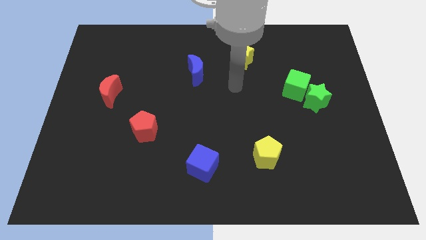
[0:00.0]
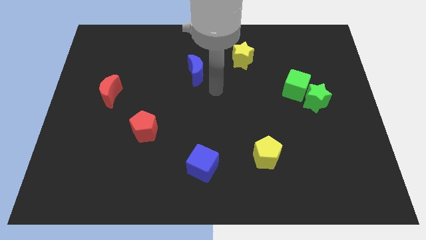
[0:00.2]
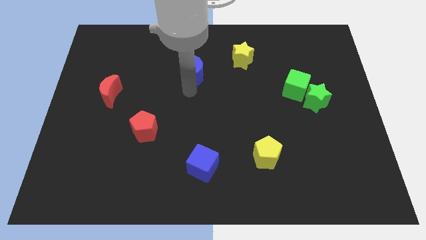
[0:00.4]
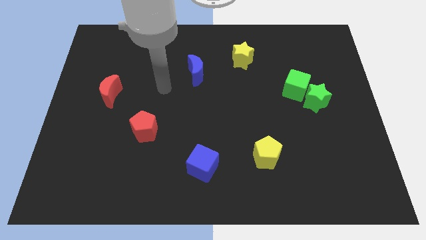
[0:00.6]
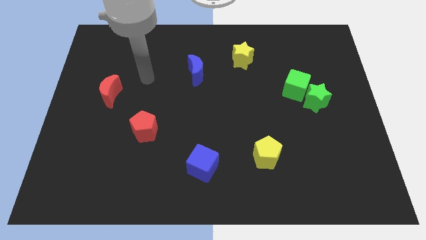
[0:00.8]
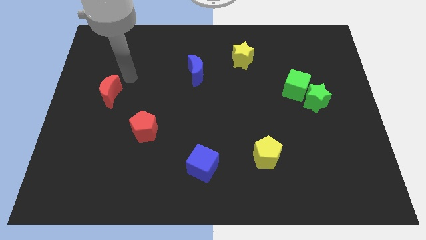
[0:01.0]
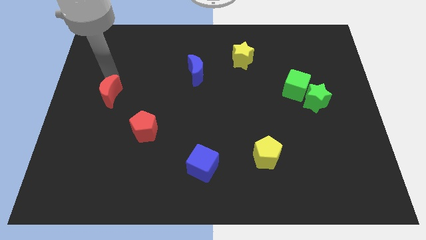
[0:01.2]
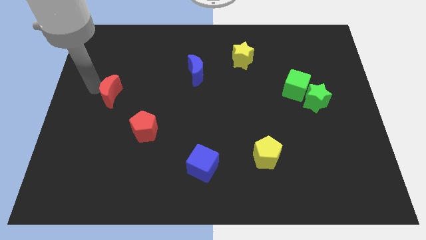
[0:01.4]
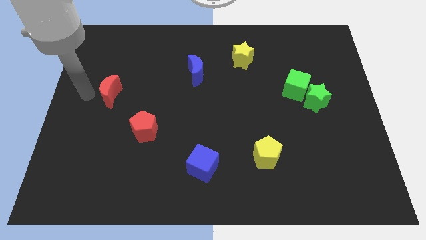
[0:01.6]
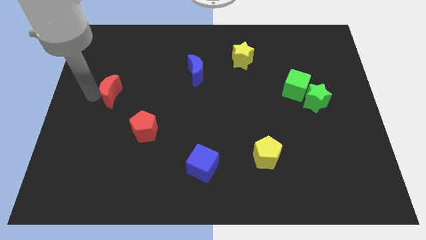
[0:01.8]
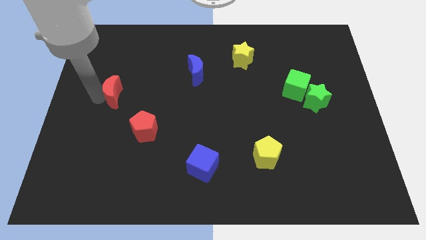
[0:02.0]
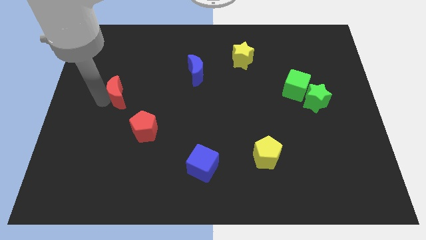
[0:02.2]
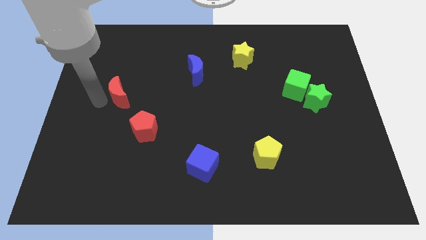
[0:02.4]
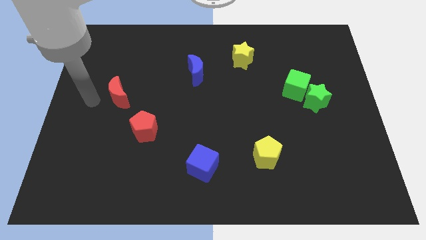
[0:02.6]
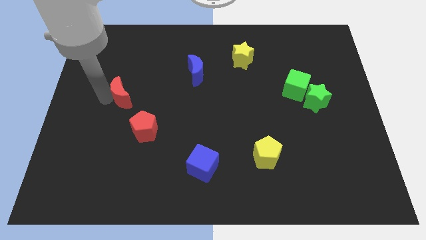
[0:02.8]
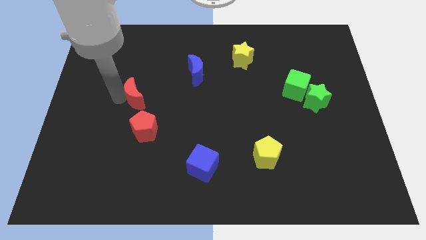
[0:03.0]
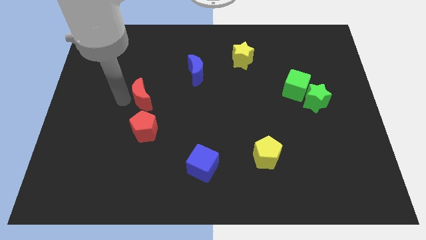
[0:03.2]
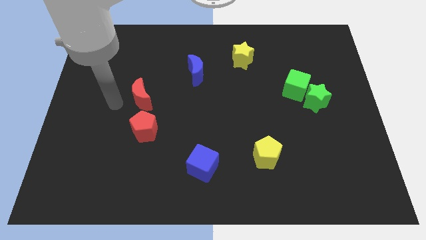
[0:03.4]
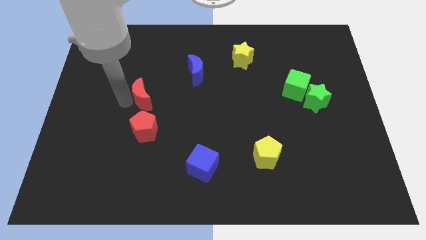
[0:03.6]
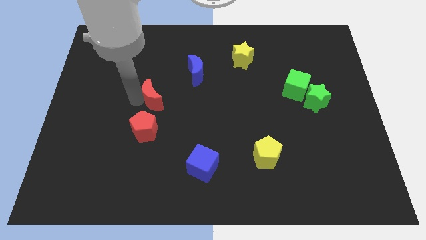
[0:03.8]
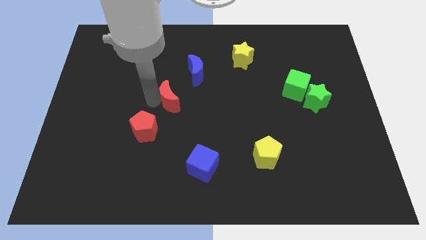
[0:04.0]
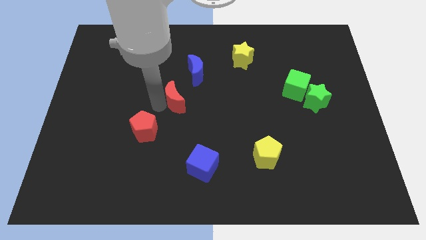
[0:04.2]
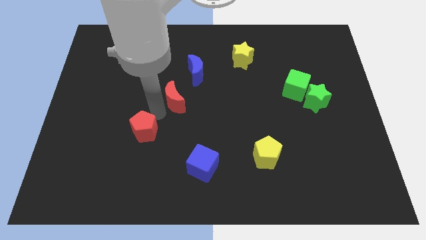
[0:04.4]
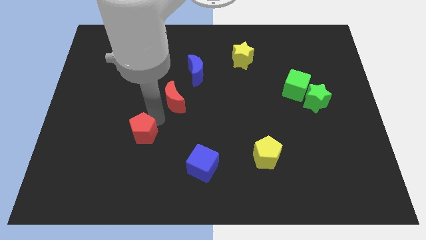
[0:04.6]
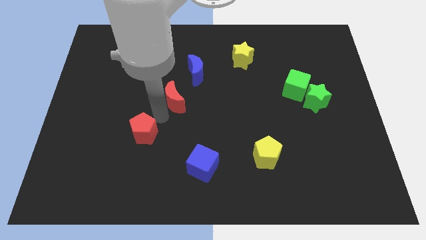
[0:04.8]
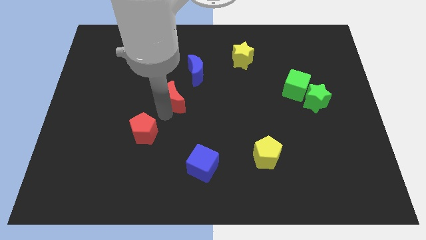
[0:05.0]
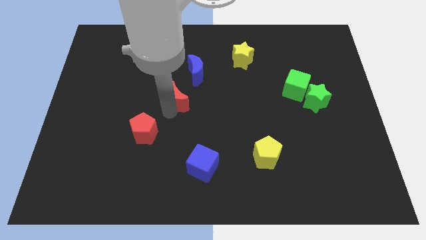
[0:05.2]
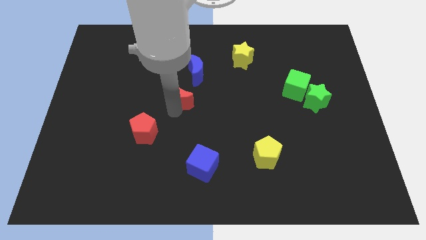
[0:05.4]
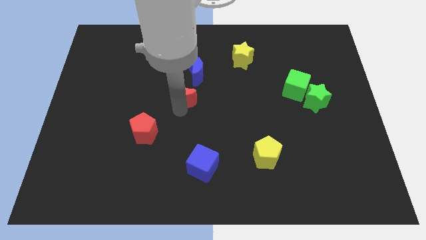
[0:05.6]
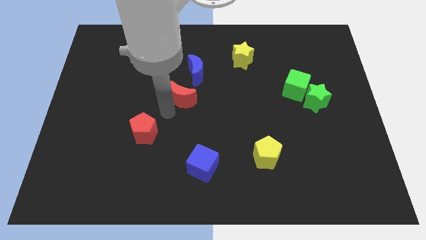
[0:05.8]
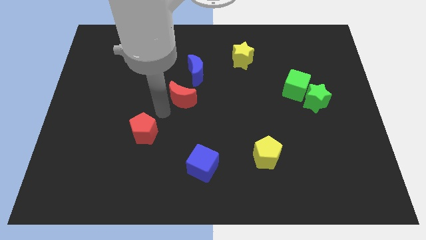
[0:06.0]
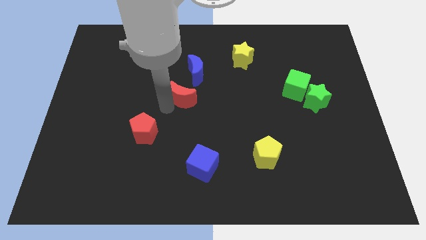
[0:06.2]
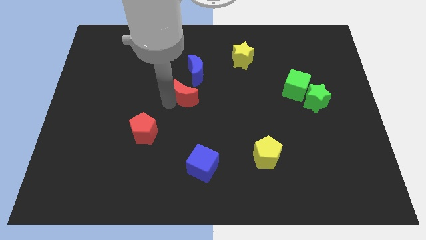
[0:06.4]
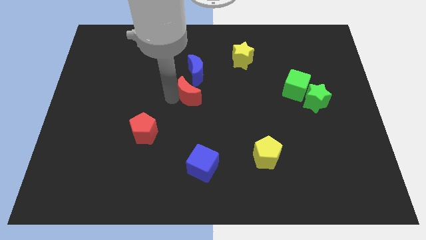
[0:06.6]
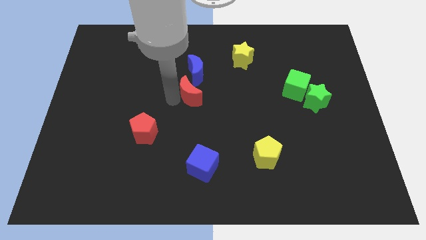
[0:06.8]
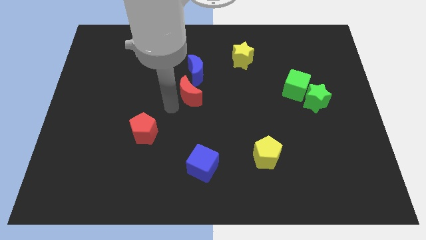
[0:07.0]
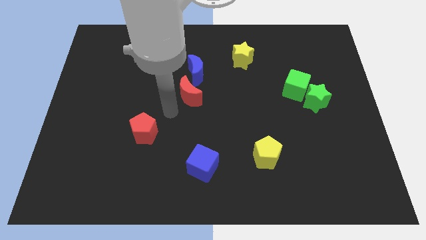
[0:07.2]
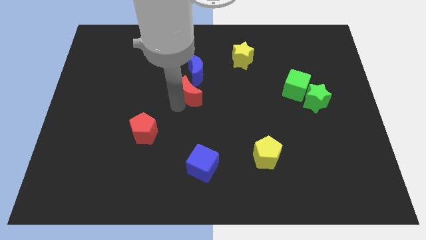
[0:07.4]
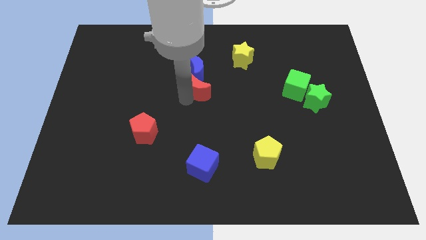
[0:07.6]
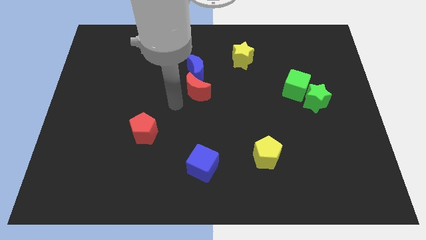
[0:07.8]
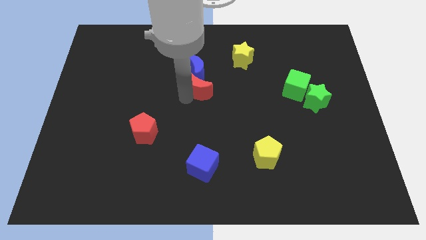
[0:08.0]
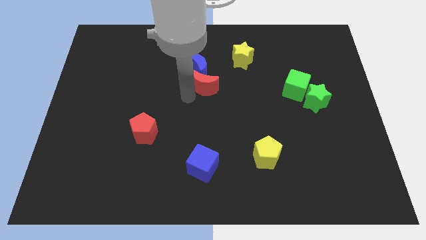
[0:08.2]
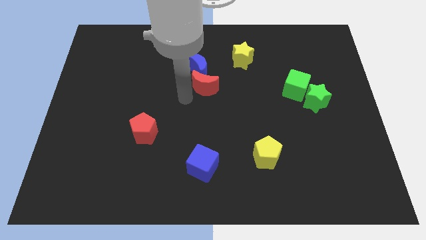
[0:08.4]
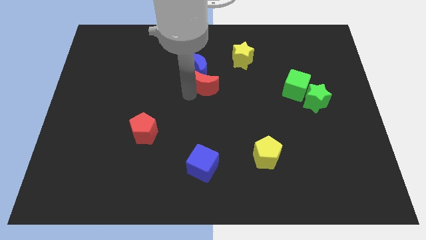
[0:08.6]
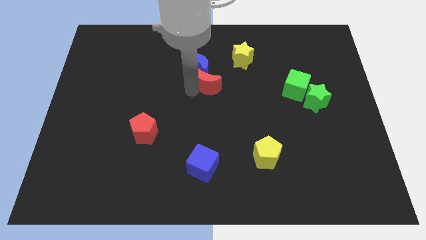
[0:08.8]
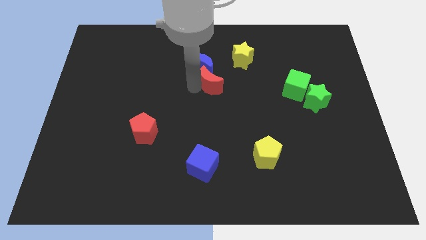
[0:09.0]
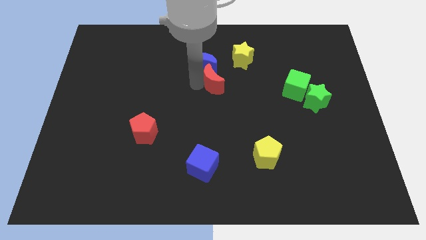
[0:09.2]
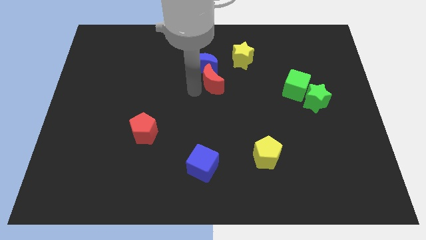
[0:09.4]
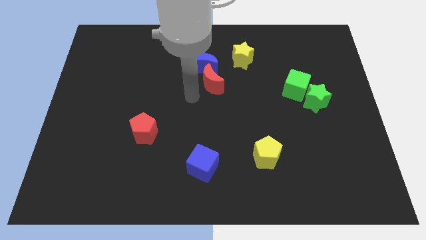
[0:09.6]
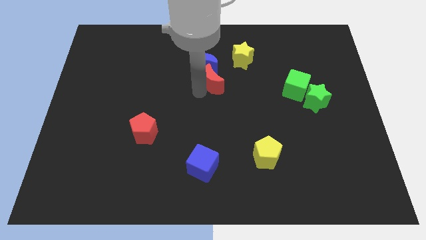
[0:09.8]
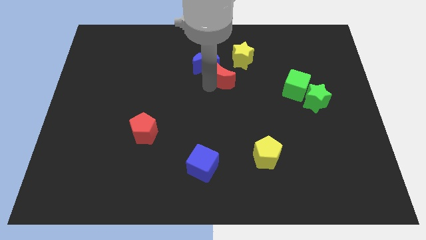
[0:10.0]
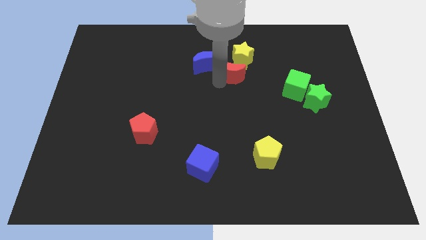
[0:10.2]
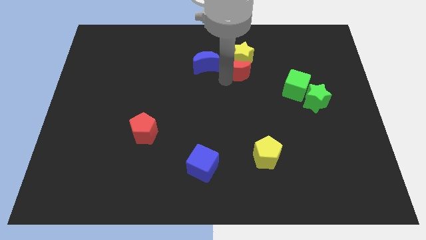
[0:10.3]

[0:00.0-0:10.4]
move the red moon next to the yellow star
